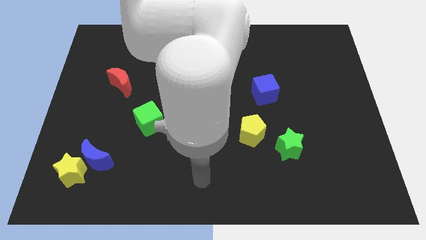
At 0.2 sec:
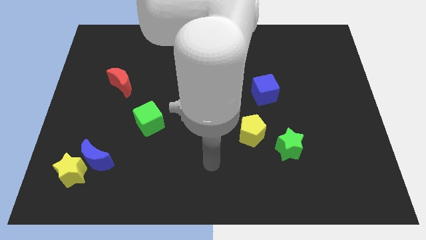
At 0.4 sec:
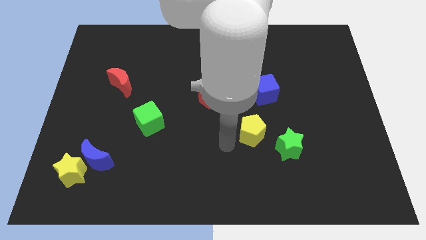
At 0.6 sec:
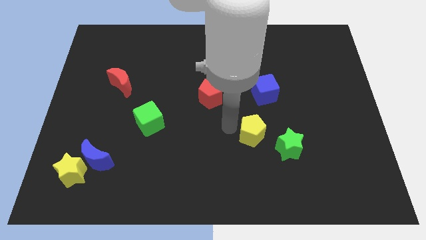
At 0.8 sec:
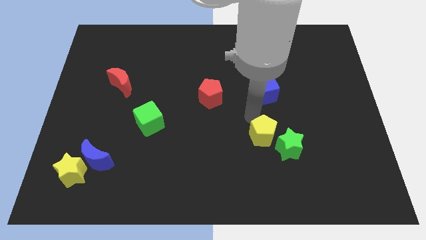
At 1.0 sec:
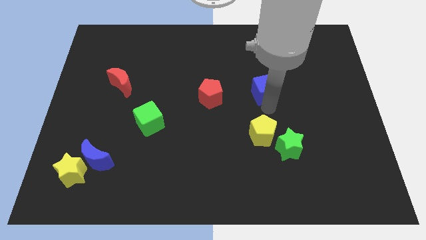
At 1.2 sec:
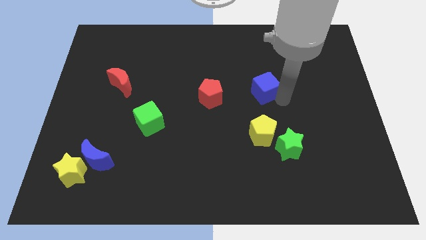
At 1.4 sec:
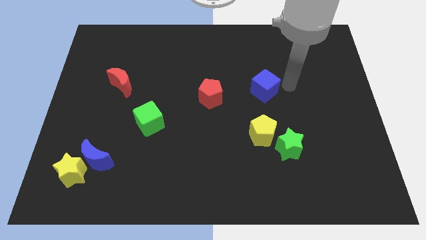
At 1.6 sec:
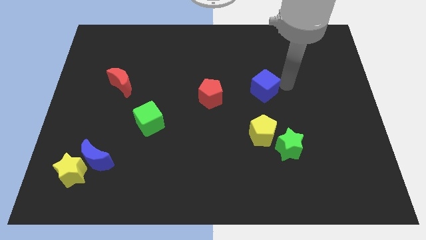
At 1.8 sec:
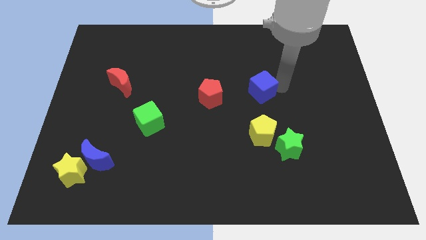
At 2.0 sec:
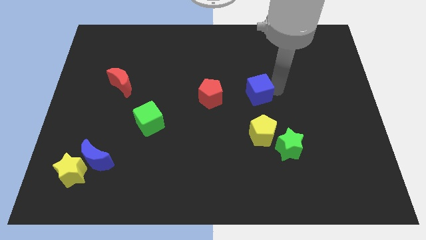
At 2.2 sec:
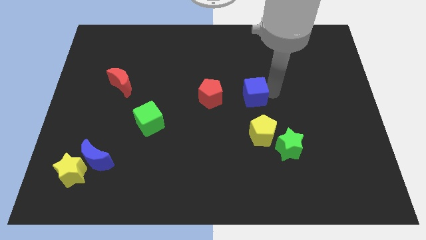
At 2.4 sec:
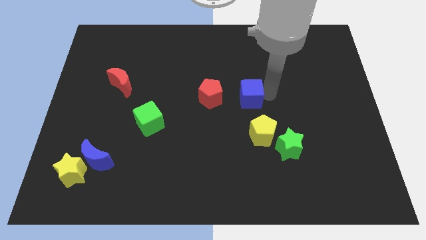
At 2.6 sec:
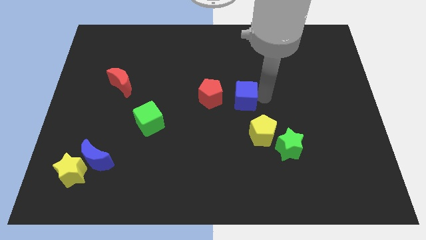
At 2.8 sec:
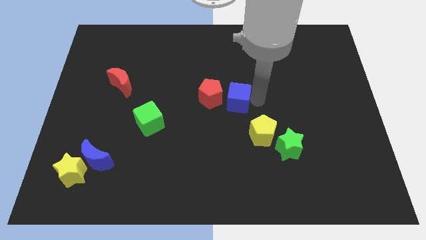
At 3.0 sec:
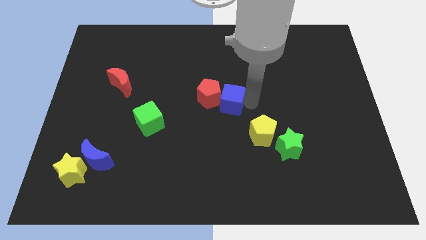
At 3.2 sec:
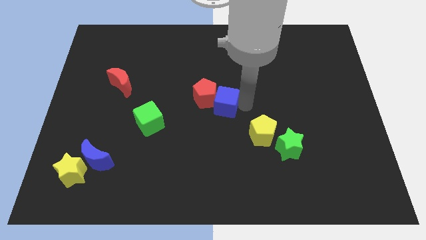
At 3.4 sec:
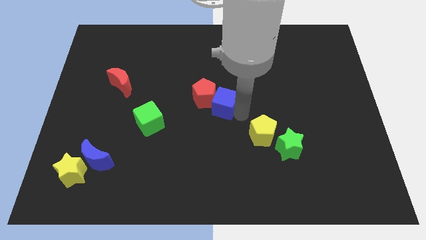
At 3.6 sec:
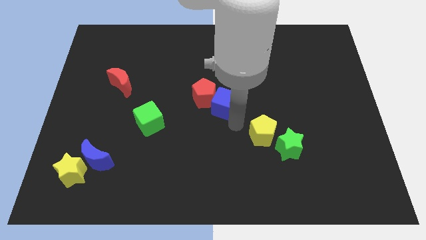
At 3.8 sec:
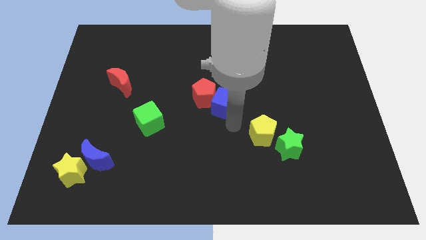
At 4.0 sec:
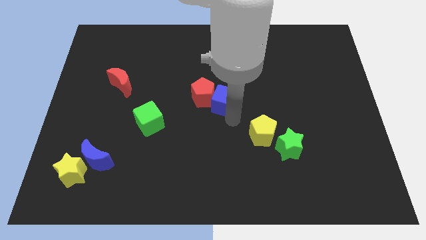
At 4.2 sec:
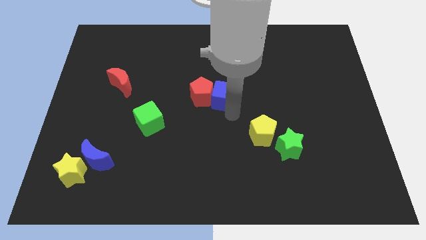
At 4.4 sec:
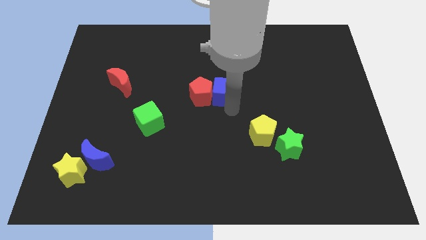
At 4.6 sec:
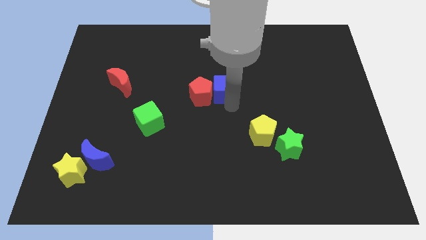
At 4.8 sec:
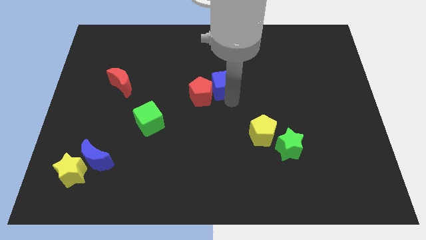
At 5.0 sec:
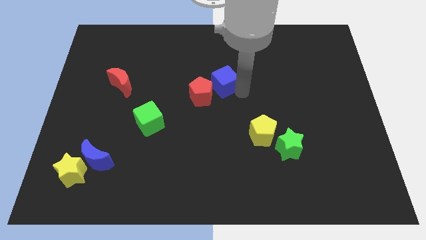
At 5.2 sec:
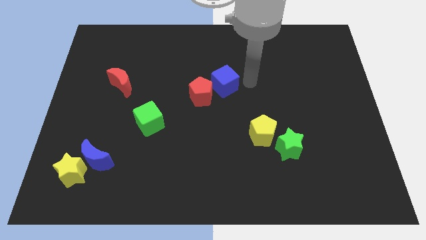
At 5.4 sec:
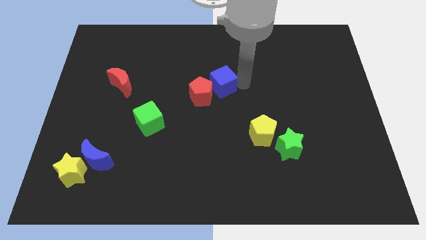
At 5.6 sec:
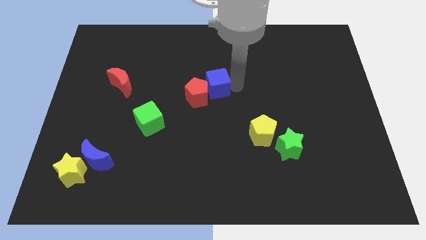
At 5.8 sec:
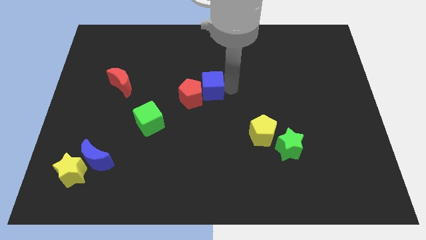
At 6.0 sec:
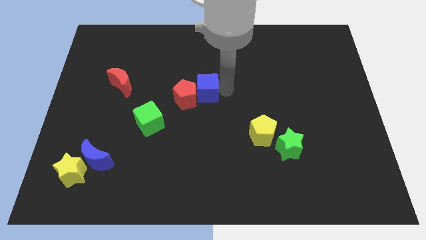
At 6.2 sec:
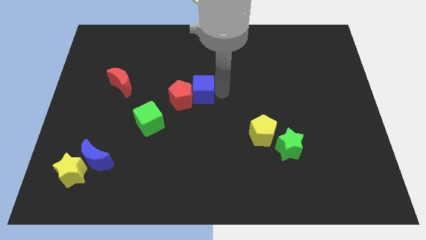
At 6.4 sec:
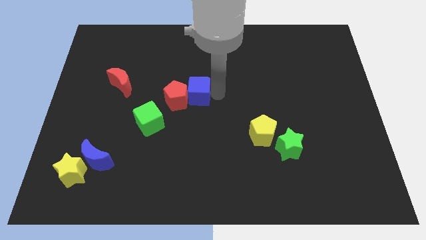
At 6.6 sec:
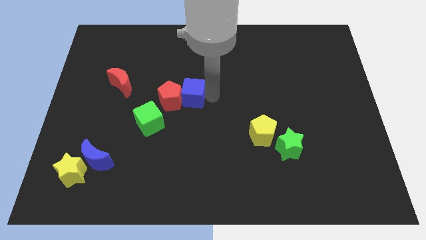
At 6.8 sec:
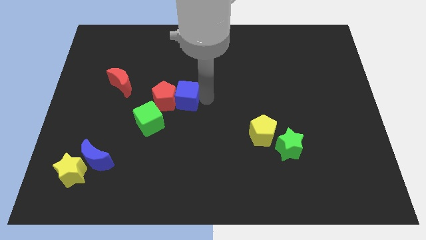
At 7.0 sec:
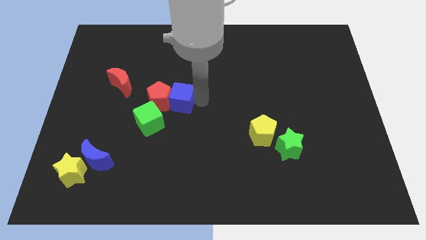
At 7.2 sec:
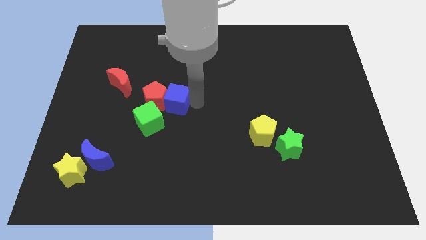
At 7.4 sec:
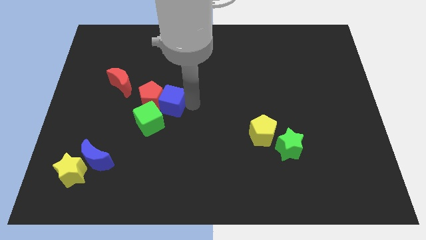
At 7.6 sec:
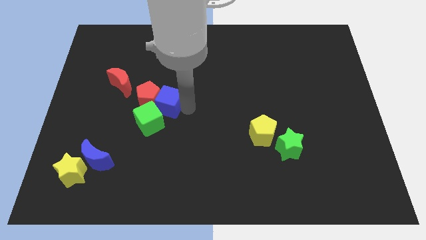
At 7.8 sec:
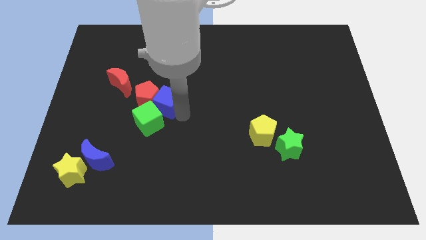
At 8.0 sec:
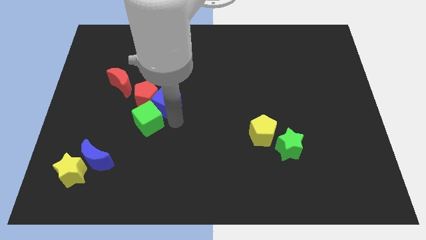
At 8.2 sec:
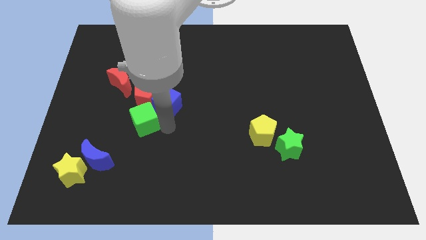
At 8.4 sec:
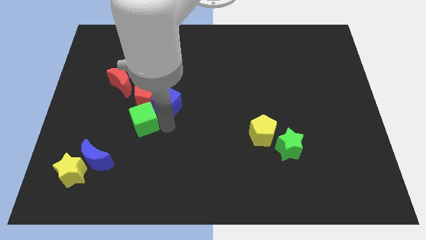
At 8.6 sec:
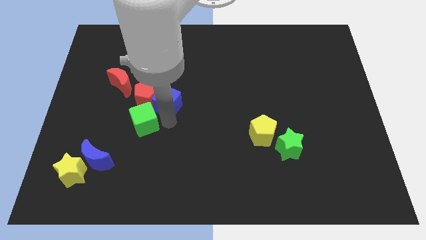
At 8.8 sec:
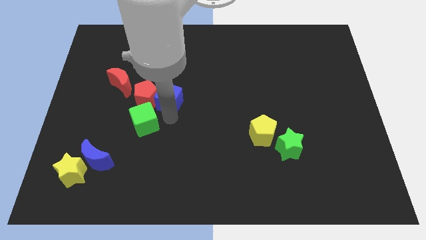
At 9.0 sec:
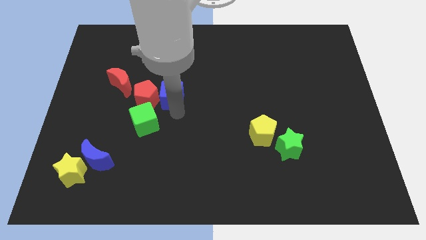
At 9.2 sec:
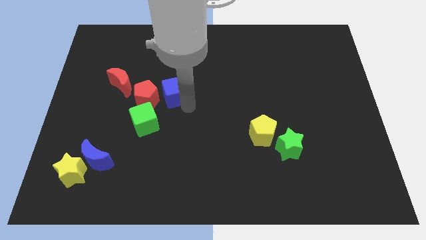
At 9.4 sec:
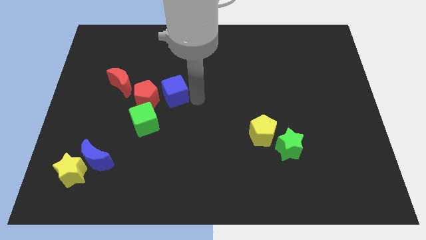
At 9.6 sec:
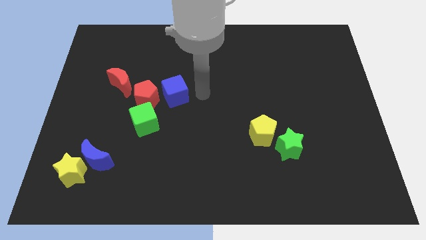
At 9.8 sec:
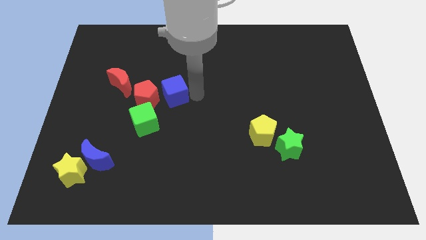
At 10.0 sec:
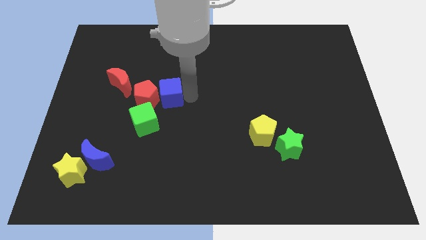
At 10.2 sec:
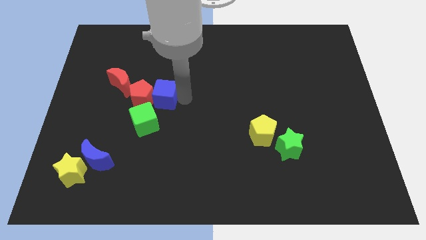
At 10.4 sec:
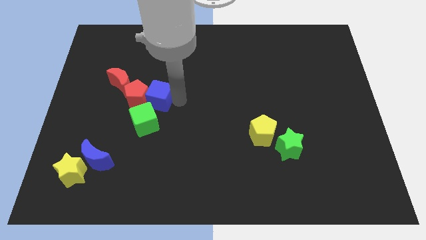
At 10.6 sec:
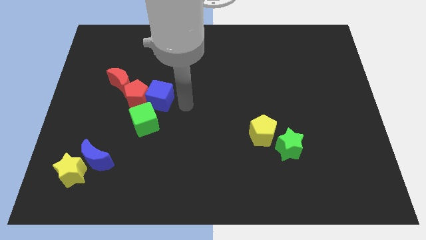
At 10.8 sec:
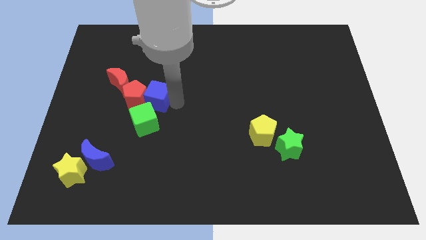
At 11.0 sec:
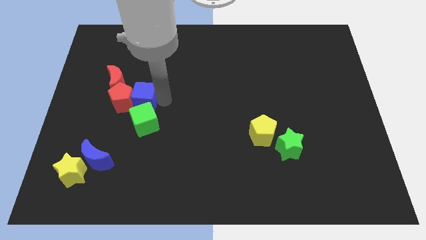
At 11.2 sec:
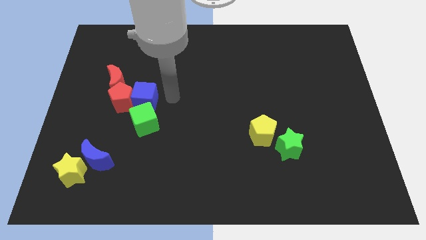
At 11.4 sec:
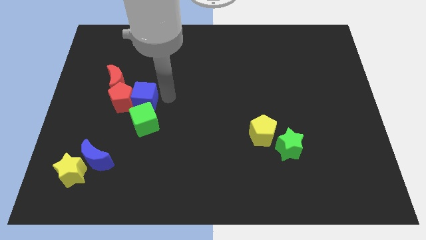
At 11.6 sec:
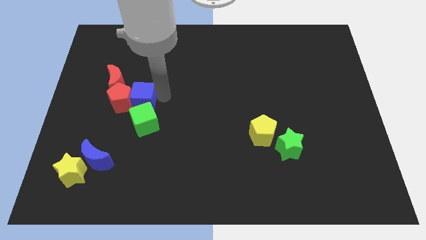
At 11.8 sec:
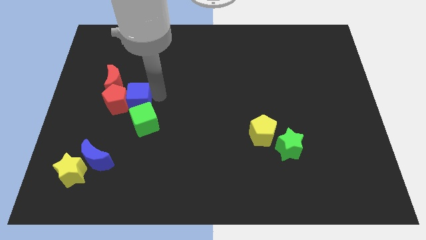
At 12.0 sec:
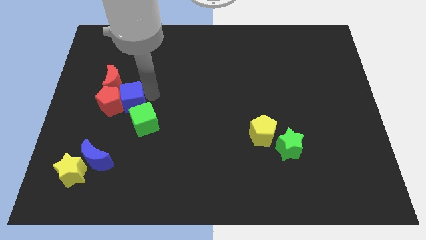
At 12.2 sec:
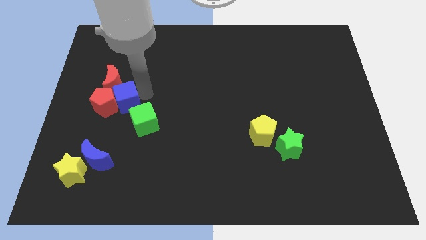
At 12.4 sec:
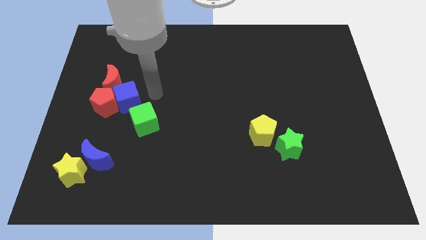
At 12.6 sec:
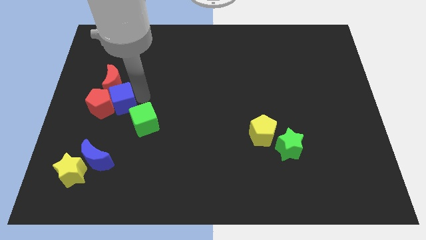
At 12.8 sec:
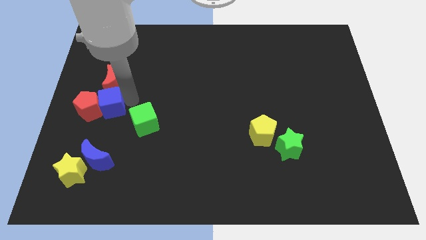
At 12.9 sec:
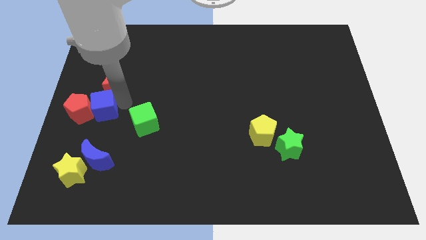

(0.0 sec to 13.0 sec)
move the blue cube to the left side of the board
